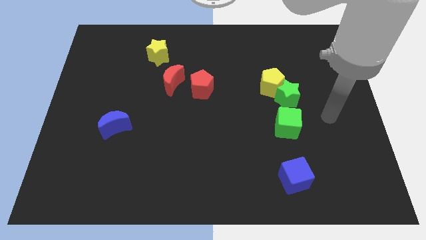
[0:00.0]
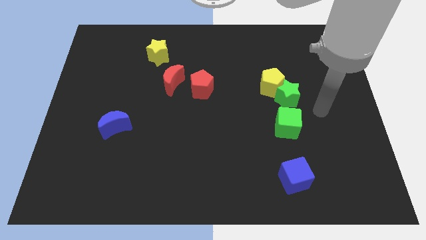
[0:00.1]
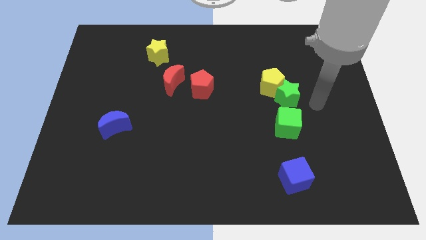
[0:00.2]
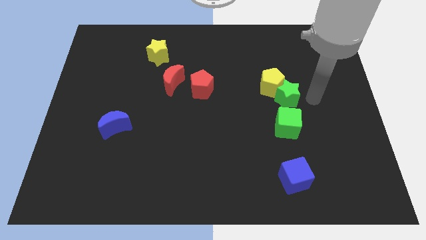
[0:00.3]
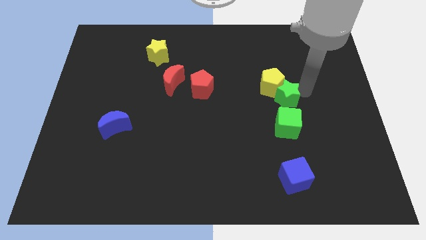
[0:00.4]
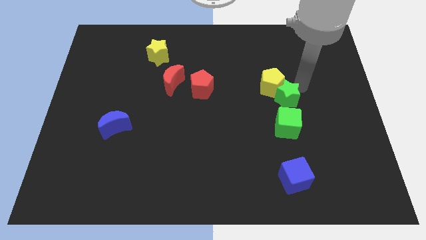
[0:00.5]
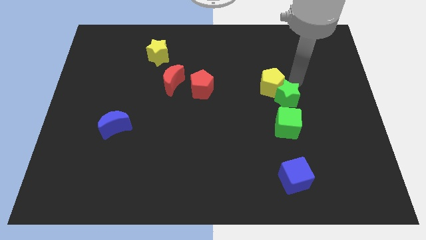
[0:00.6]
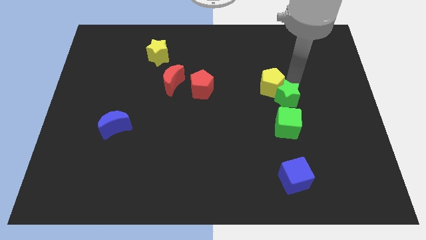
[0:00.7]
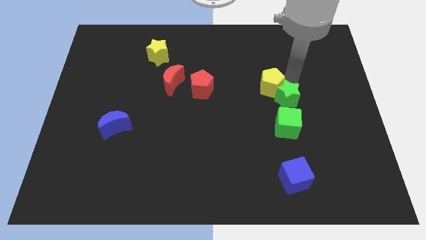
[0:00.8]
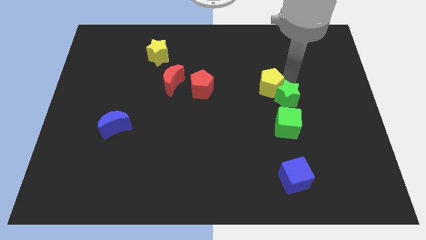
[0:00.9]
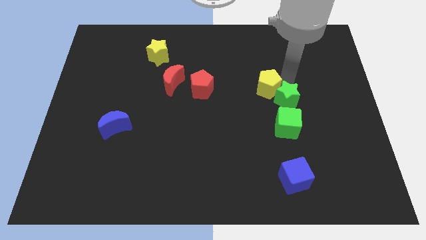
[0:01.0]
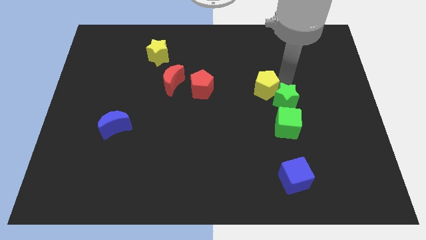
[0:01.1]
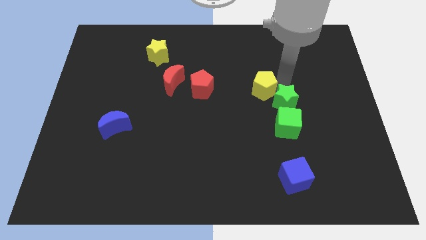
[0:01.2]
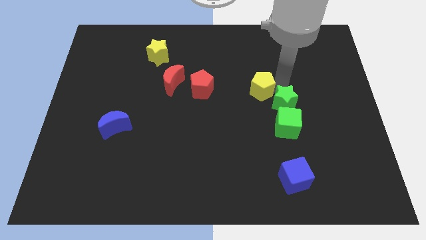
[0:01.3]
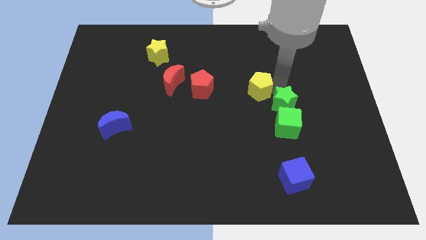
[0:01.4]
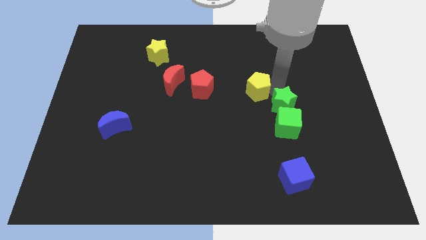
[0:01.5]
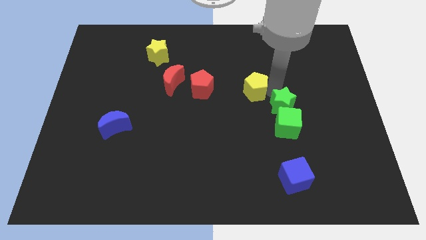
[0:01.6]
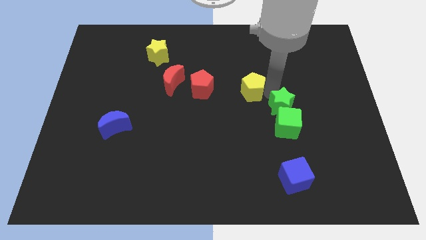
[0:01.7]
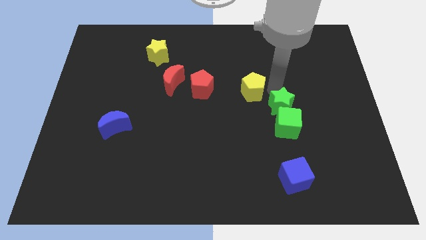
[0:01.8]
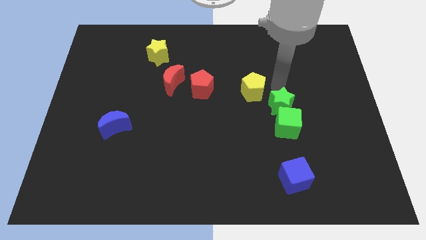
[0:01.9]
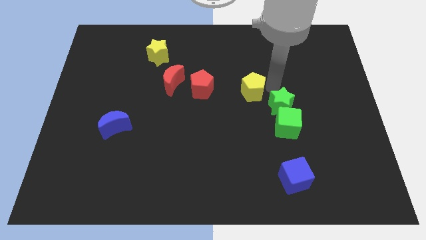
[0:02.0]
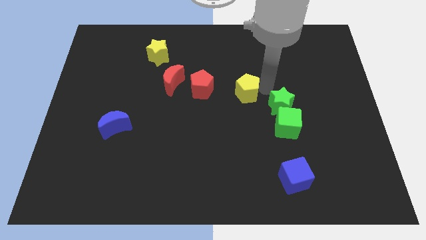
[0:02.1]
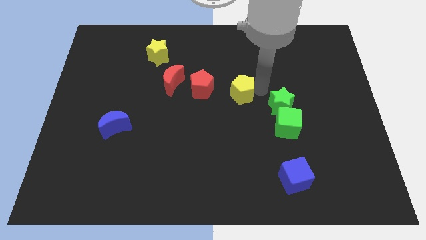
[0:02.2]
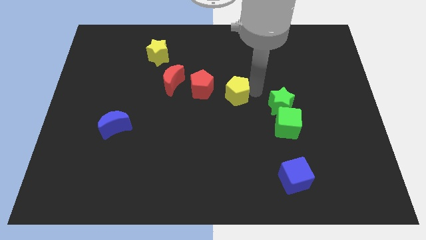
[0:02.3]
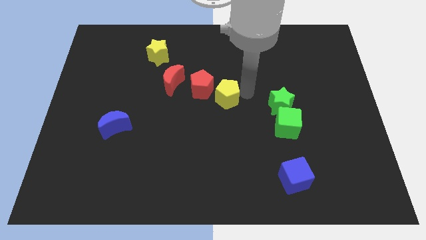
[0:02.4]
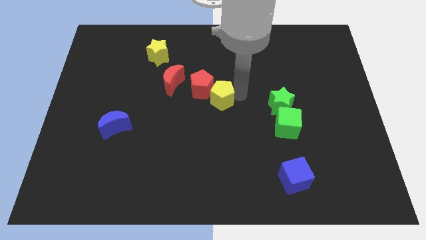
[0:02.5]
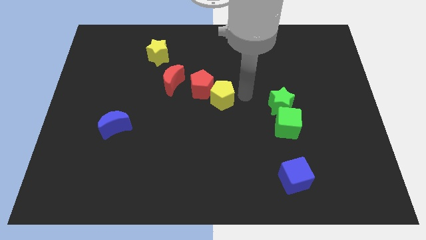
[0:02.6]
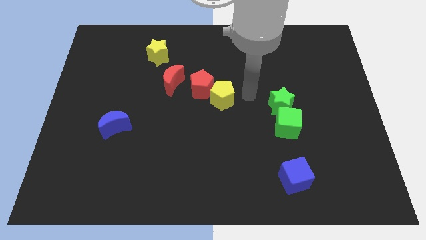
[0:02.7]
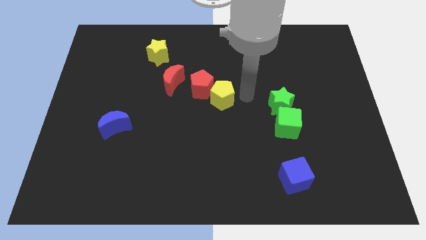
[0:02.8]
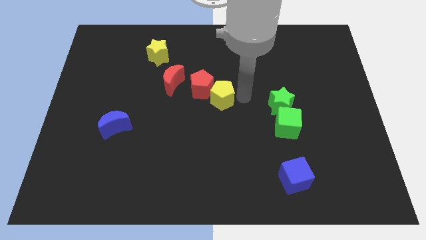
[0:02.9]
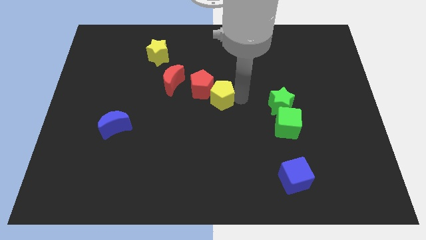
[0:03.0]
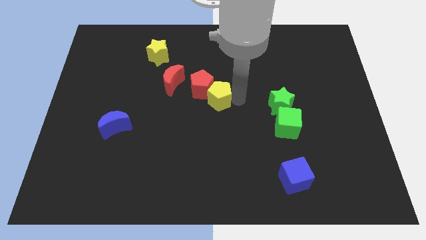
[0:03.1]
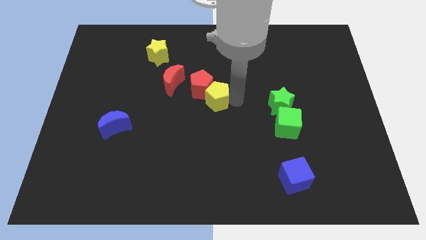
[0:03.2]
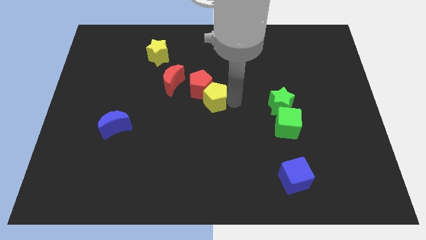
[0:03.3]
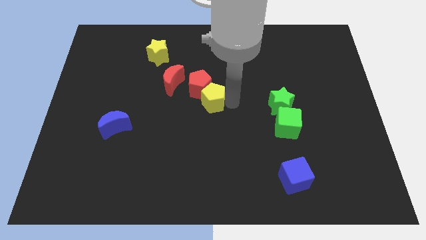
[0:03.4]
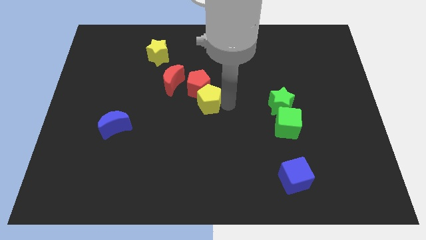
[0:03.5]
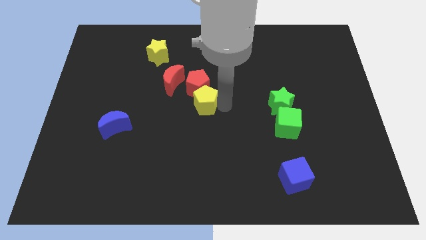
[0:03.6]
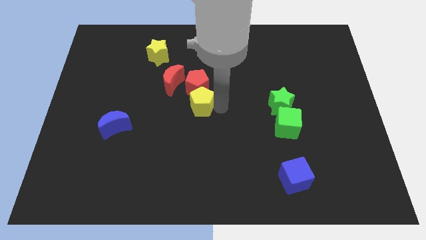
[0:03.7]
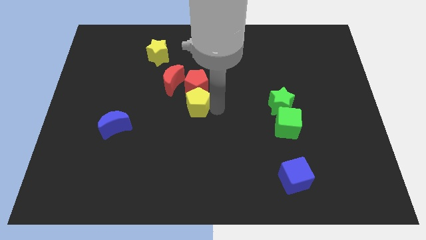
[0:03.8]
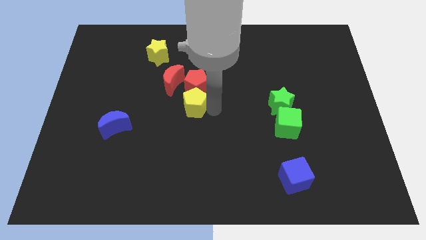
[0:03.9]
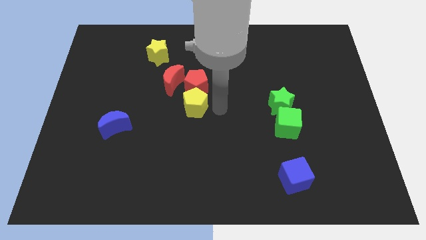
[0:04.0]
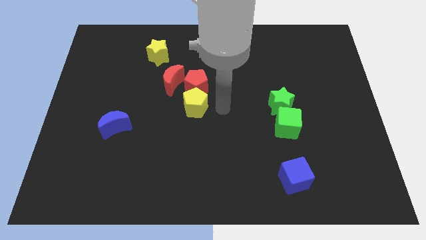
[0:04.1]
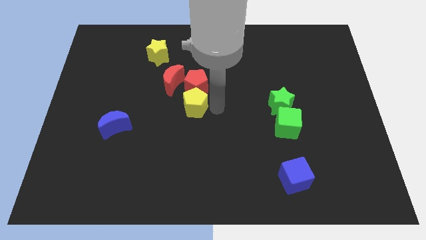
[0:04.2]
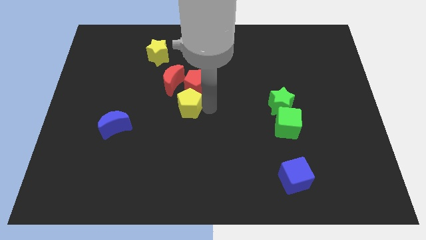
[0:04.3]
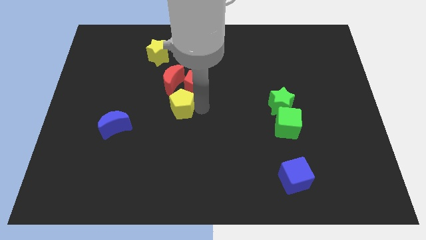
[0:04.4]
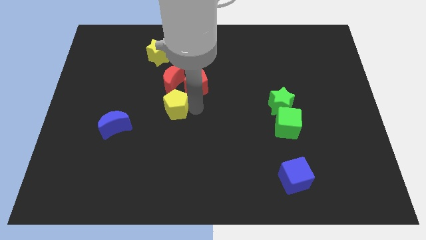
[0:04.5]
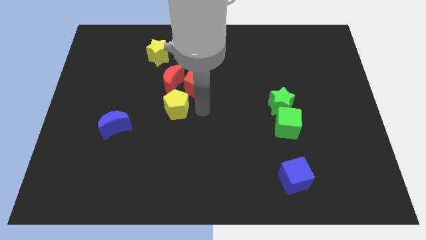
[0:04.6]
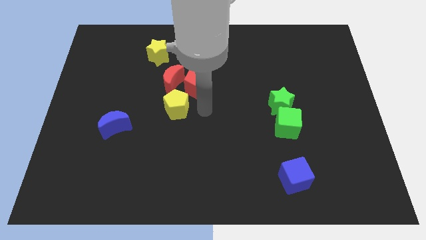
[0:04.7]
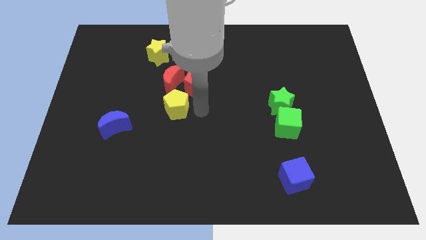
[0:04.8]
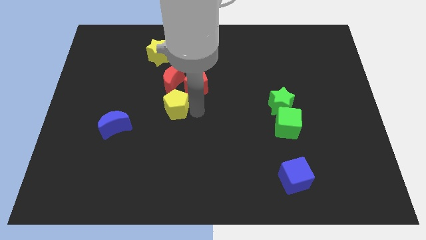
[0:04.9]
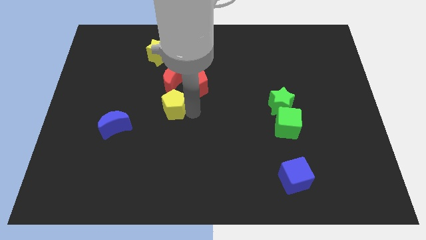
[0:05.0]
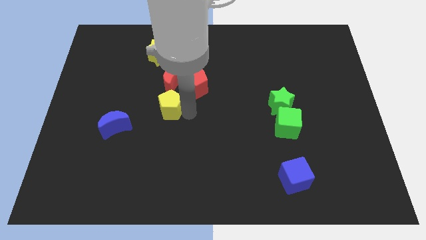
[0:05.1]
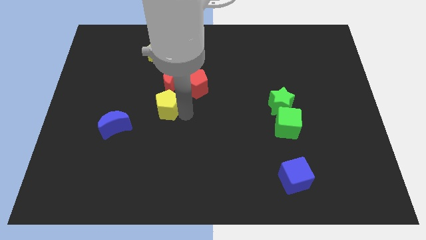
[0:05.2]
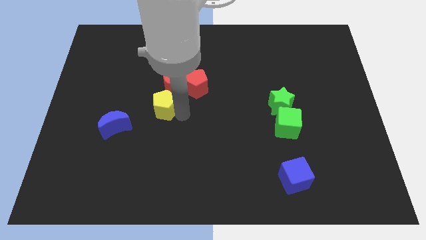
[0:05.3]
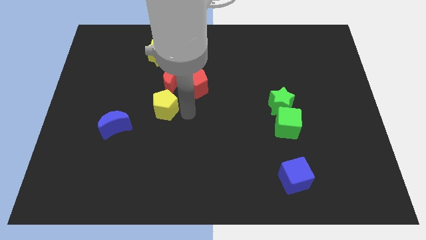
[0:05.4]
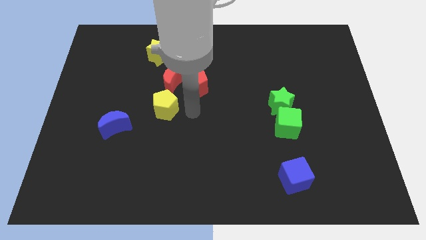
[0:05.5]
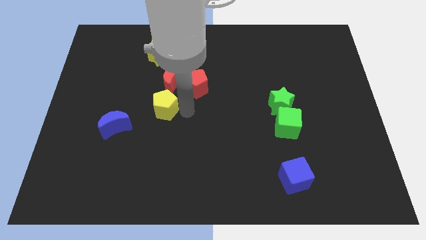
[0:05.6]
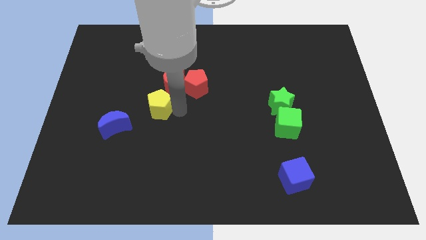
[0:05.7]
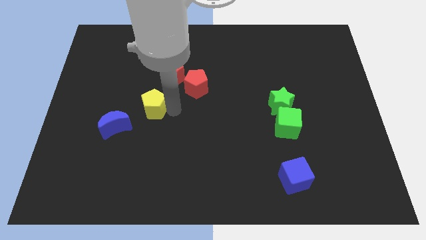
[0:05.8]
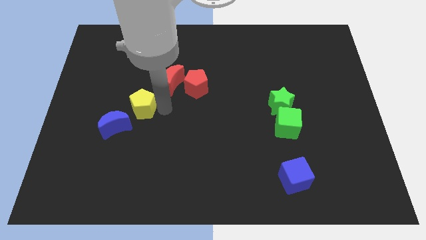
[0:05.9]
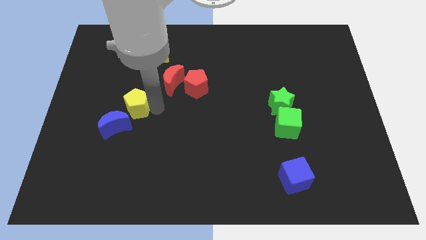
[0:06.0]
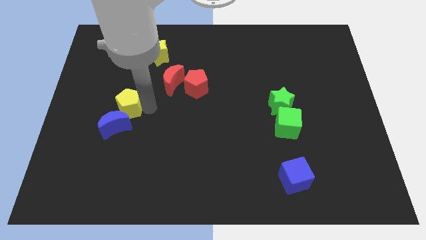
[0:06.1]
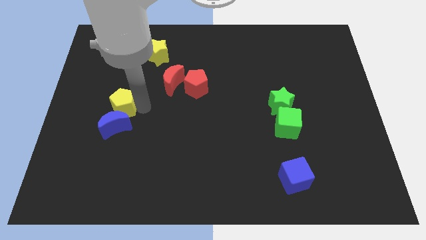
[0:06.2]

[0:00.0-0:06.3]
push the yellow pentagon to the top left side of the blue moon

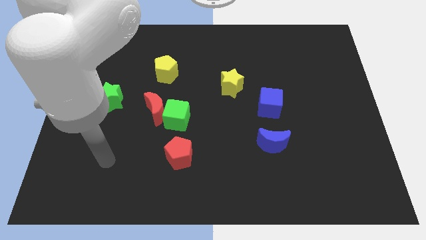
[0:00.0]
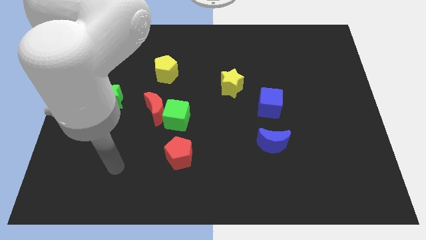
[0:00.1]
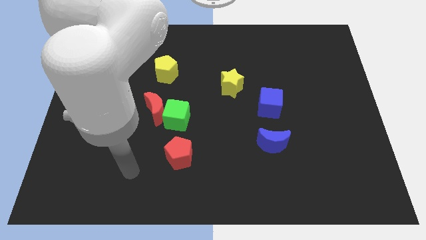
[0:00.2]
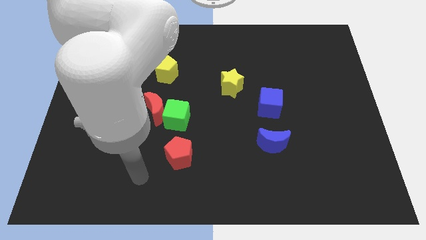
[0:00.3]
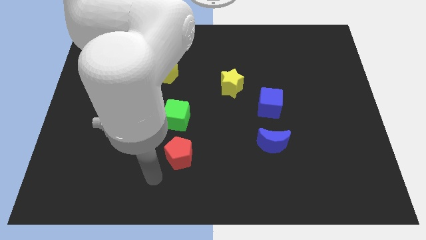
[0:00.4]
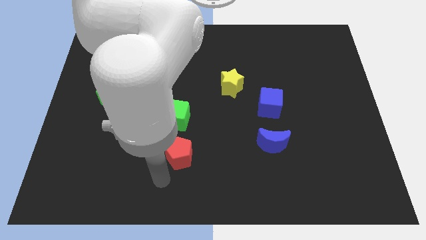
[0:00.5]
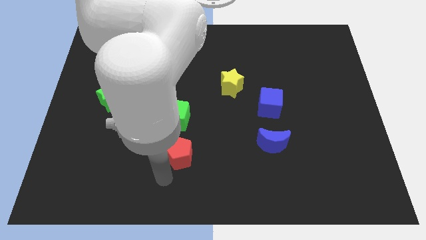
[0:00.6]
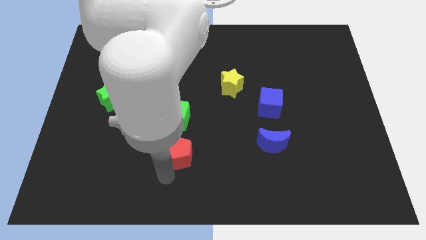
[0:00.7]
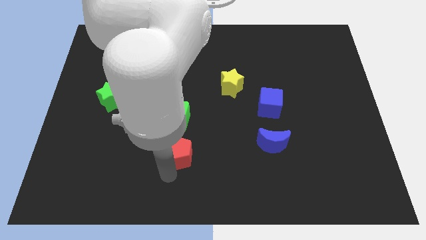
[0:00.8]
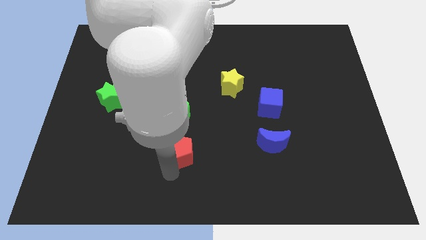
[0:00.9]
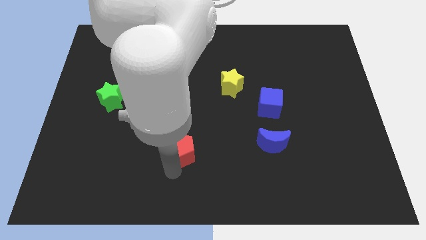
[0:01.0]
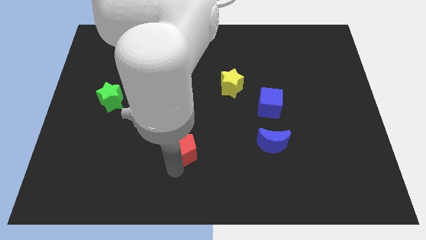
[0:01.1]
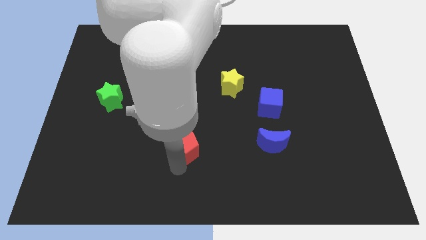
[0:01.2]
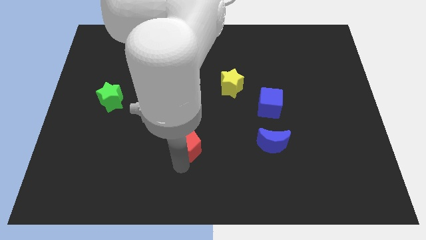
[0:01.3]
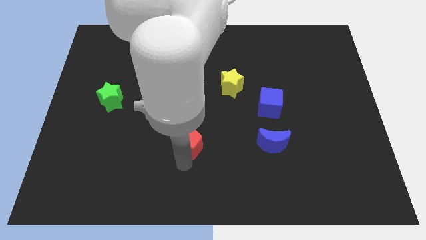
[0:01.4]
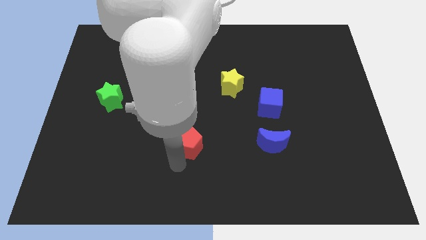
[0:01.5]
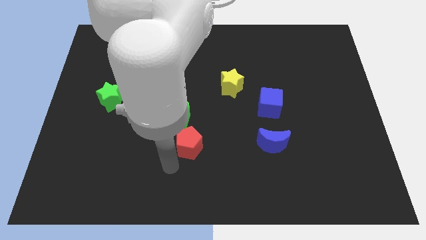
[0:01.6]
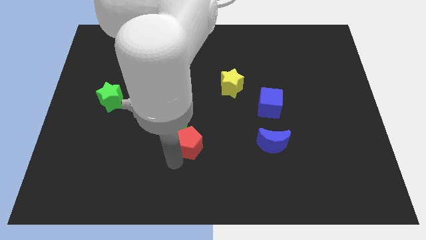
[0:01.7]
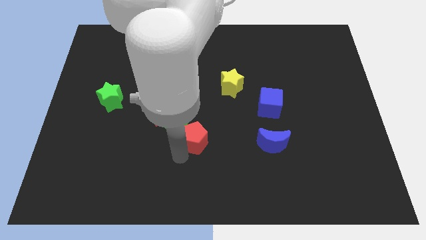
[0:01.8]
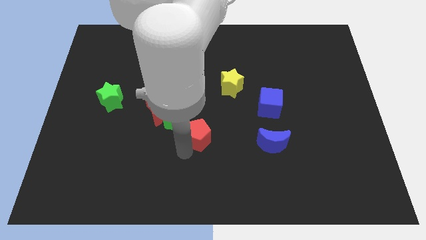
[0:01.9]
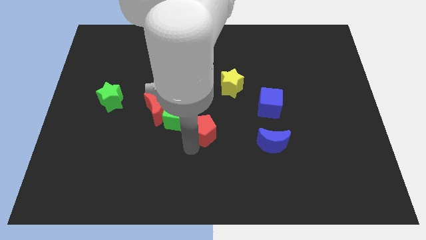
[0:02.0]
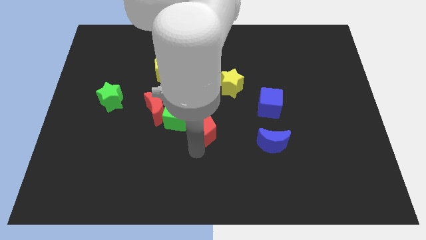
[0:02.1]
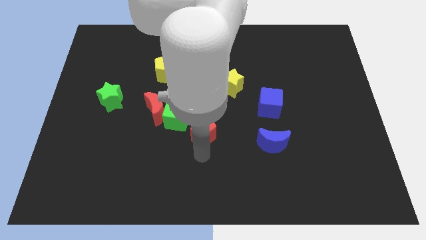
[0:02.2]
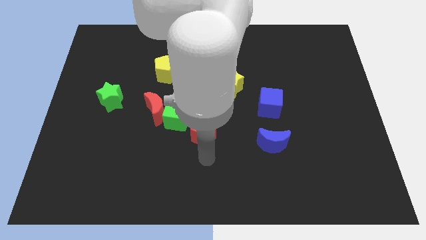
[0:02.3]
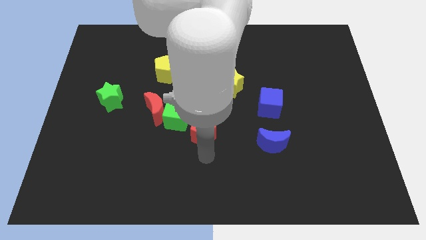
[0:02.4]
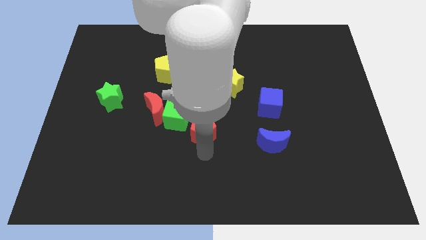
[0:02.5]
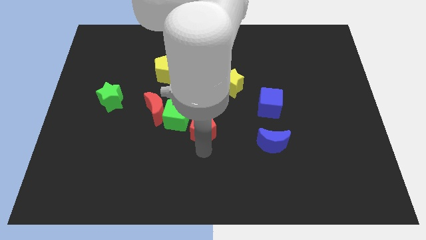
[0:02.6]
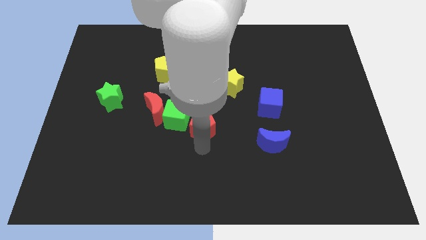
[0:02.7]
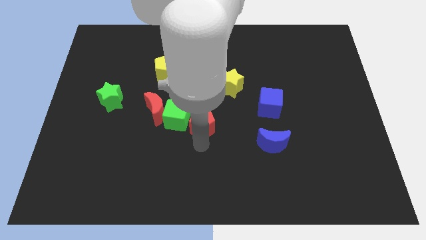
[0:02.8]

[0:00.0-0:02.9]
slide the red pentagon to the right of the red moon
